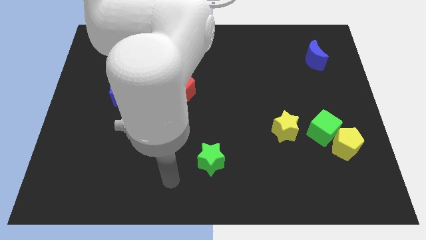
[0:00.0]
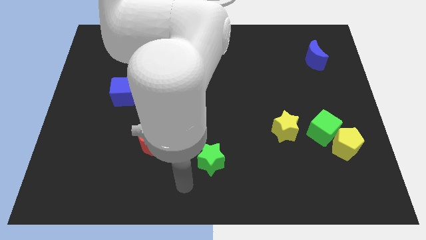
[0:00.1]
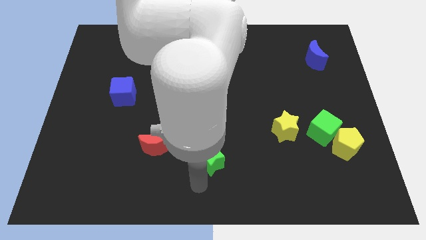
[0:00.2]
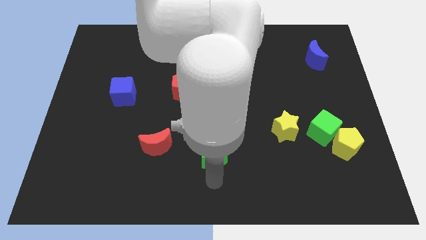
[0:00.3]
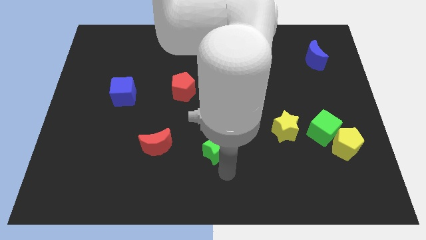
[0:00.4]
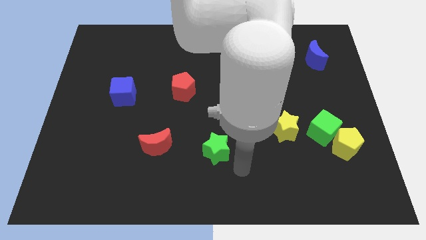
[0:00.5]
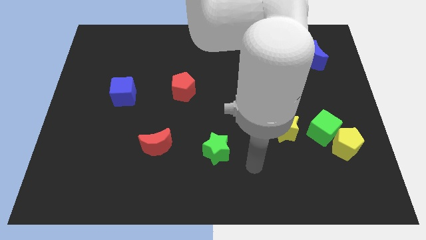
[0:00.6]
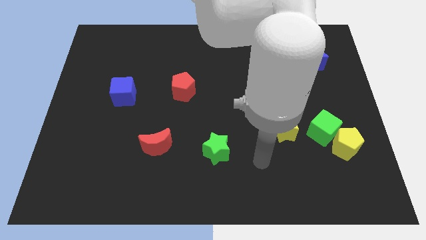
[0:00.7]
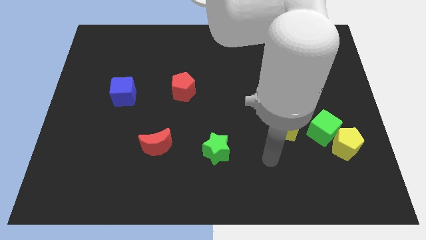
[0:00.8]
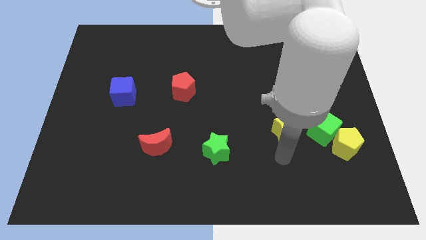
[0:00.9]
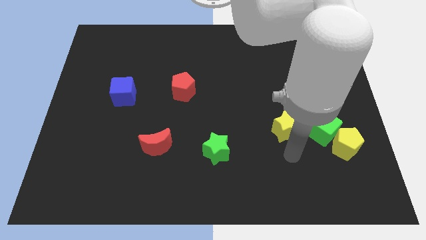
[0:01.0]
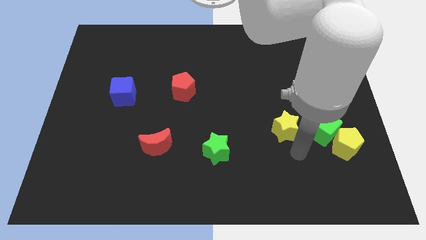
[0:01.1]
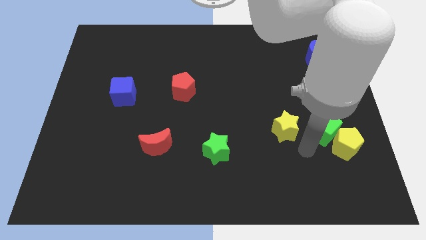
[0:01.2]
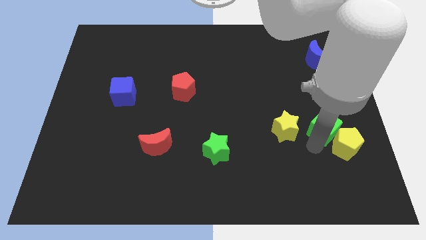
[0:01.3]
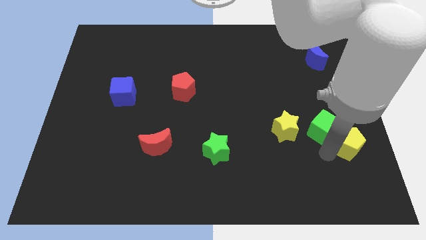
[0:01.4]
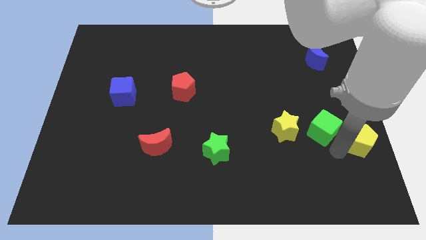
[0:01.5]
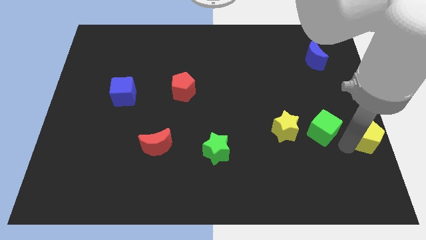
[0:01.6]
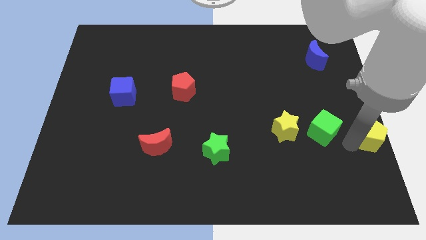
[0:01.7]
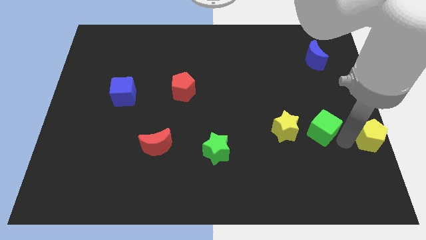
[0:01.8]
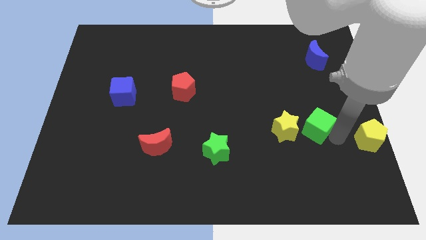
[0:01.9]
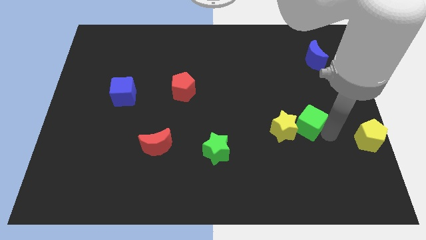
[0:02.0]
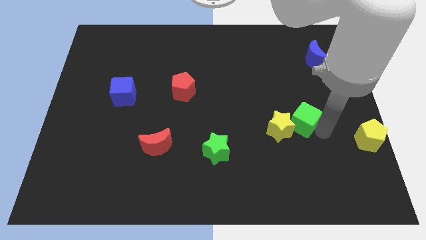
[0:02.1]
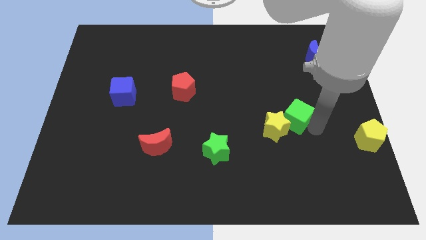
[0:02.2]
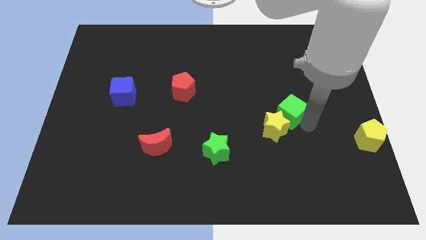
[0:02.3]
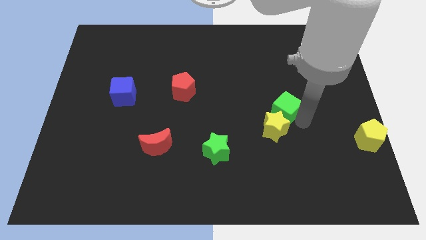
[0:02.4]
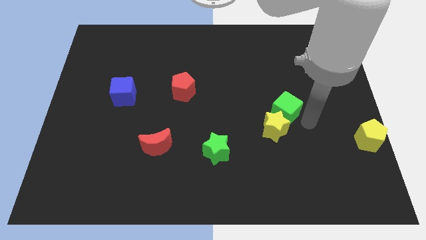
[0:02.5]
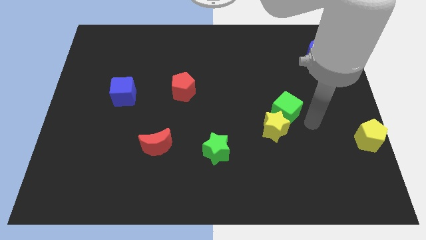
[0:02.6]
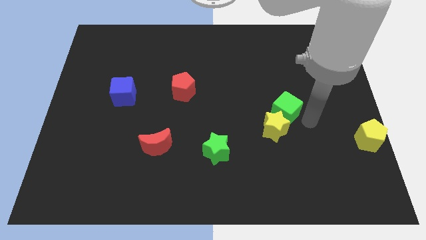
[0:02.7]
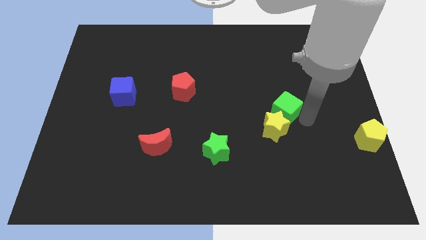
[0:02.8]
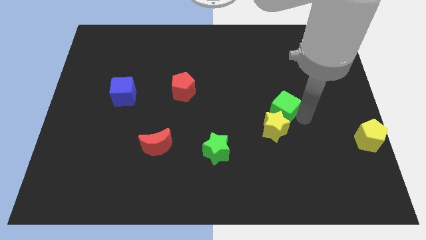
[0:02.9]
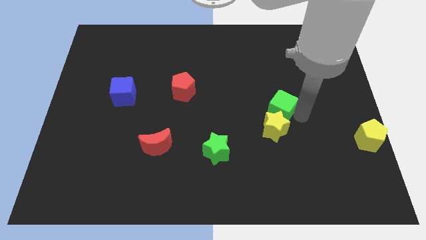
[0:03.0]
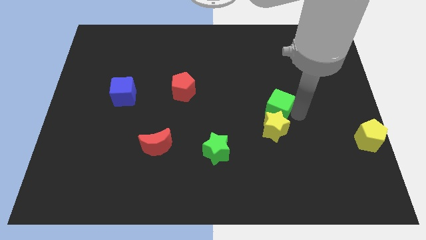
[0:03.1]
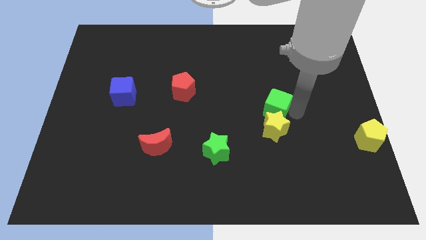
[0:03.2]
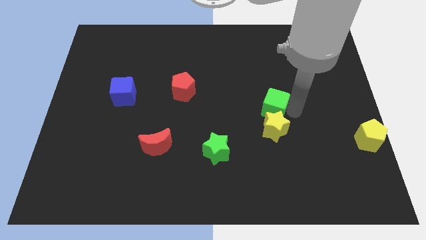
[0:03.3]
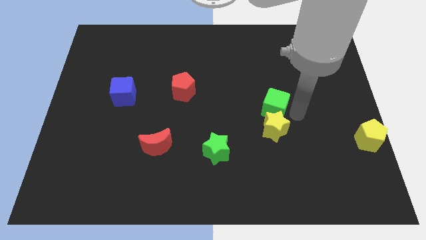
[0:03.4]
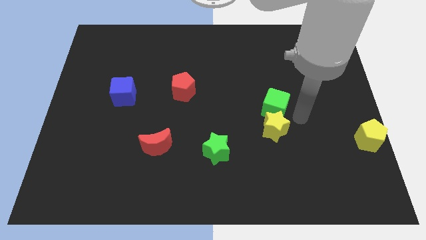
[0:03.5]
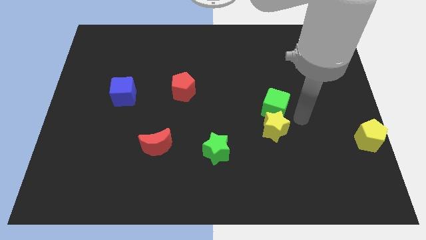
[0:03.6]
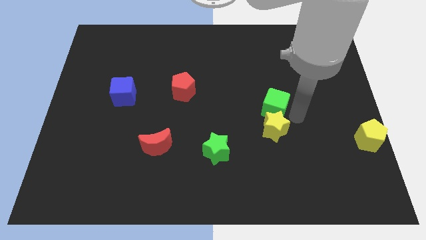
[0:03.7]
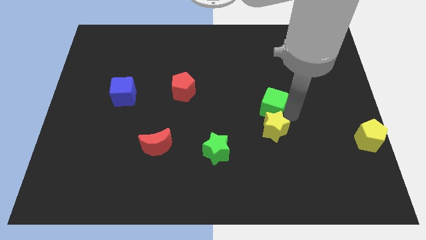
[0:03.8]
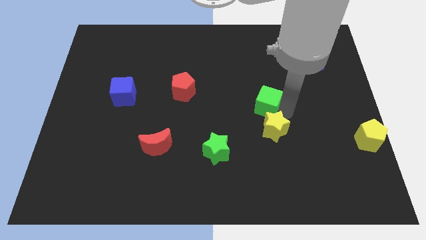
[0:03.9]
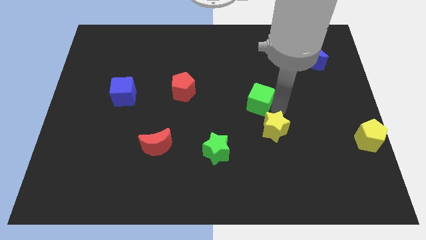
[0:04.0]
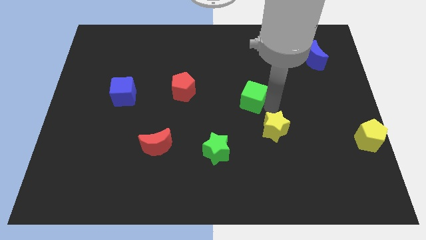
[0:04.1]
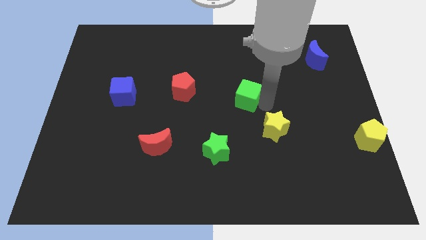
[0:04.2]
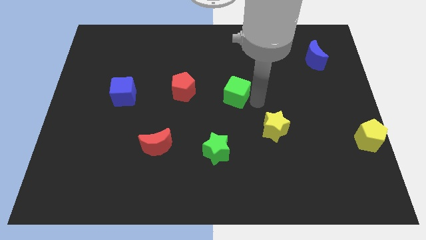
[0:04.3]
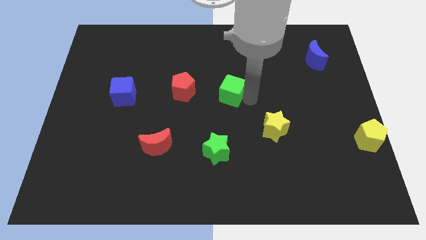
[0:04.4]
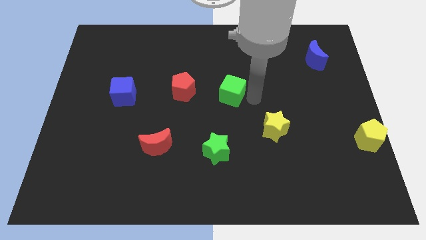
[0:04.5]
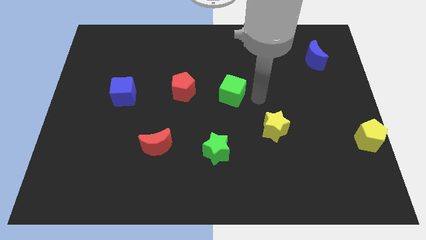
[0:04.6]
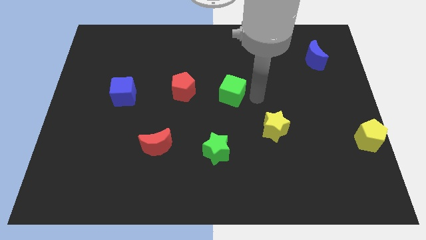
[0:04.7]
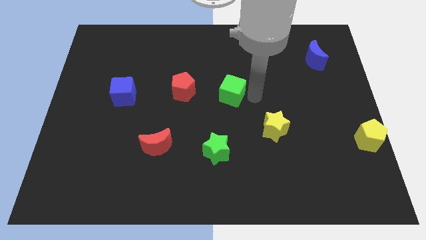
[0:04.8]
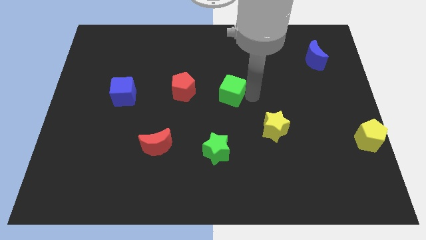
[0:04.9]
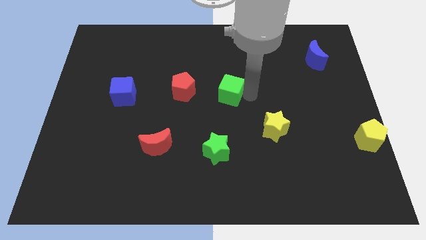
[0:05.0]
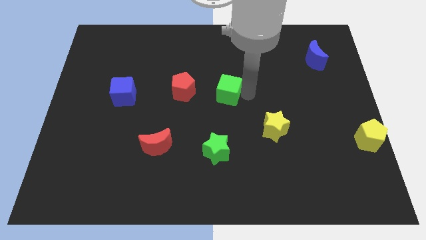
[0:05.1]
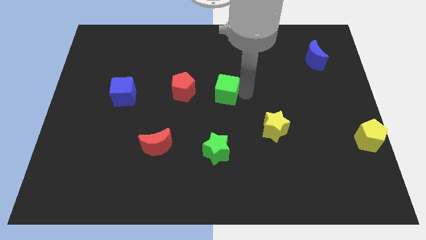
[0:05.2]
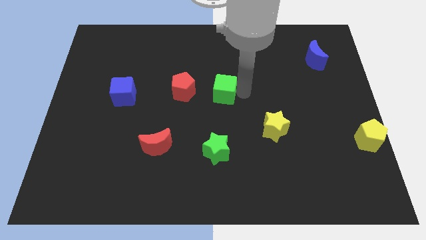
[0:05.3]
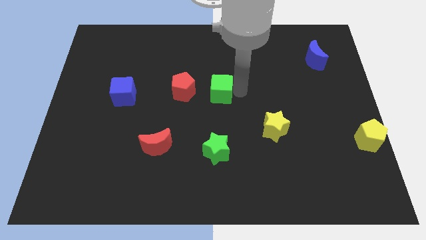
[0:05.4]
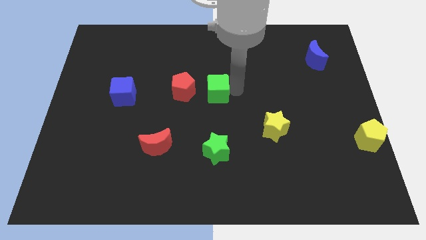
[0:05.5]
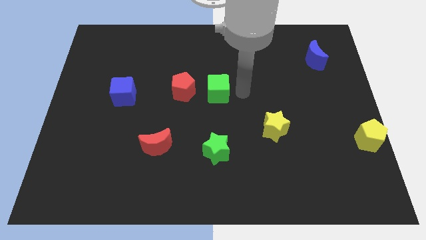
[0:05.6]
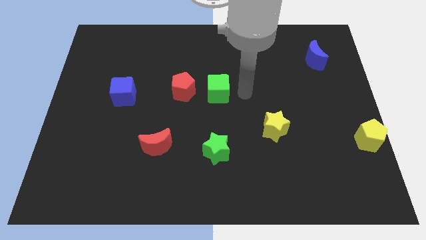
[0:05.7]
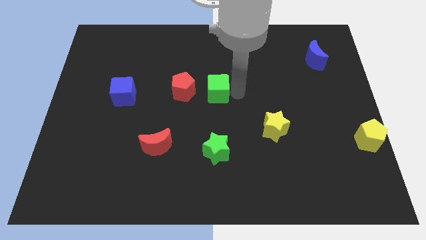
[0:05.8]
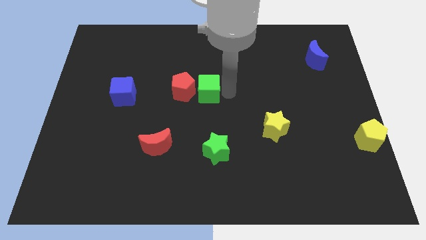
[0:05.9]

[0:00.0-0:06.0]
push the green cube to the red pentagon
